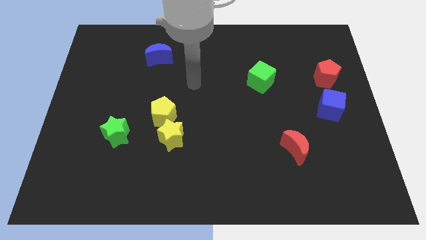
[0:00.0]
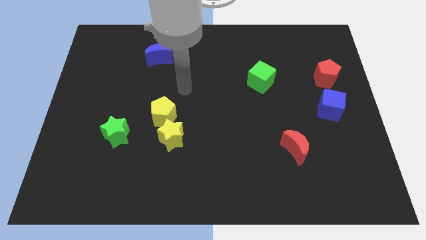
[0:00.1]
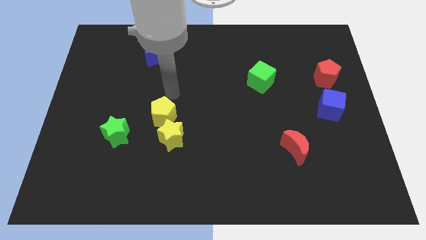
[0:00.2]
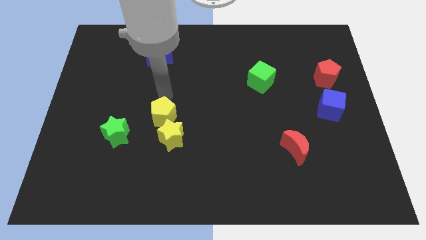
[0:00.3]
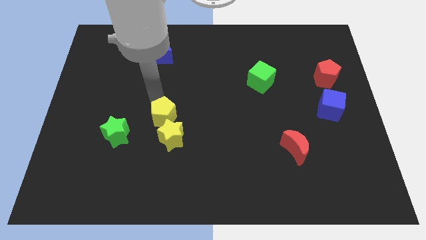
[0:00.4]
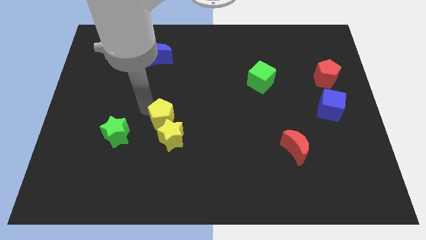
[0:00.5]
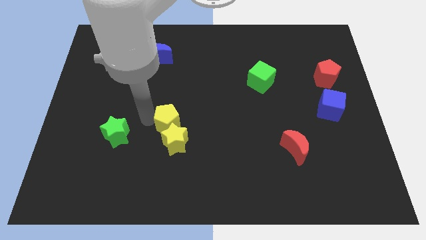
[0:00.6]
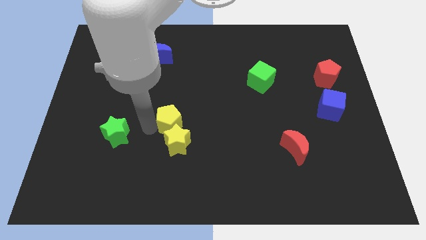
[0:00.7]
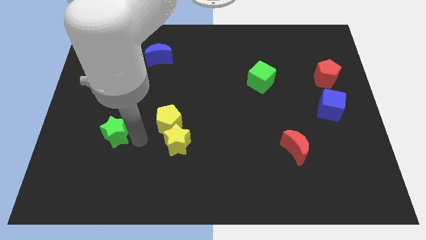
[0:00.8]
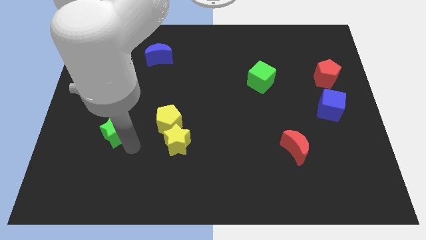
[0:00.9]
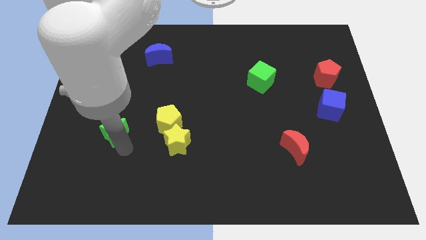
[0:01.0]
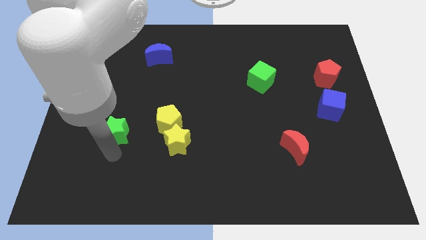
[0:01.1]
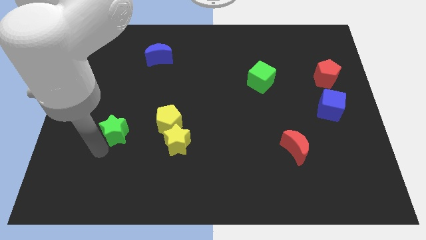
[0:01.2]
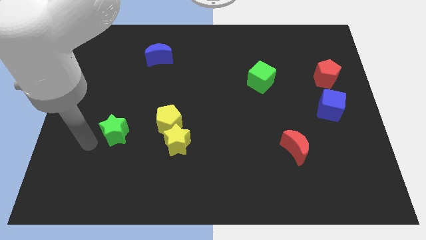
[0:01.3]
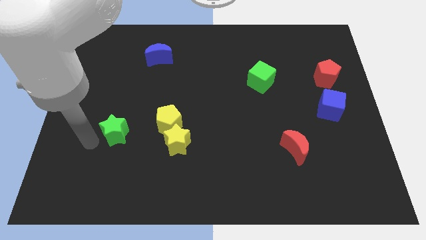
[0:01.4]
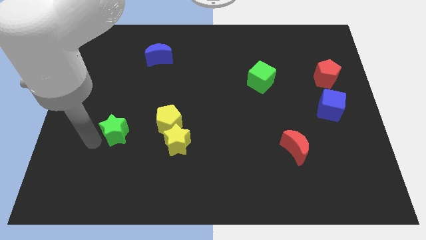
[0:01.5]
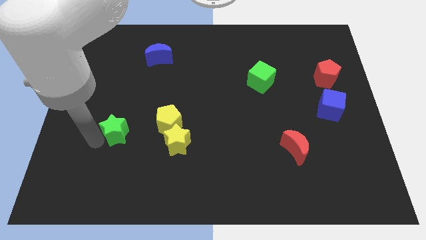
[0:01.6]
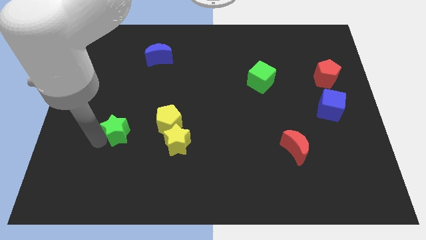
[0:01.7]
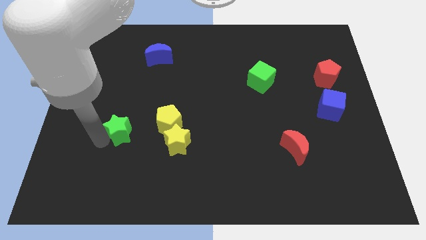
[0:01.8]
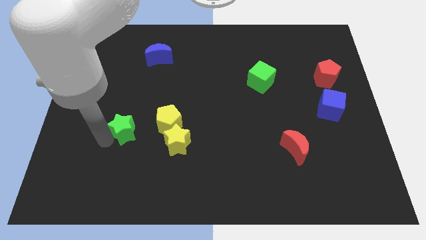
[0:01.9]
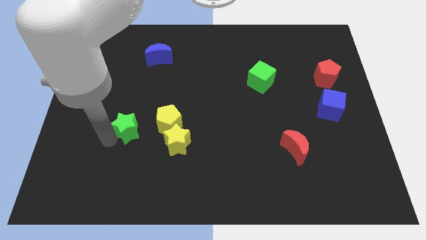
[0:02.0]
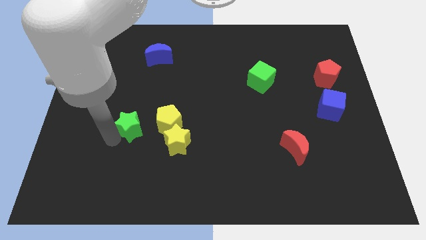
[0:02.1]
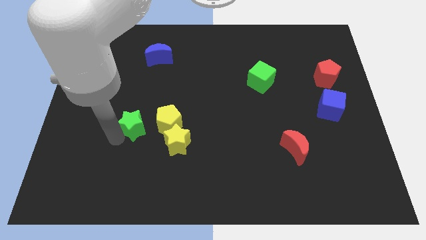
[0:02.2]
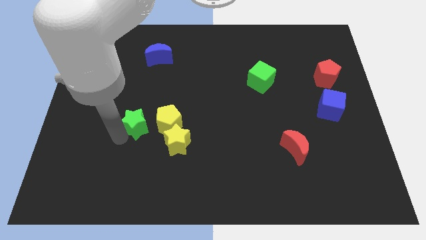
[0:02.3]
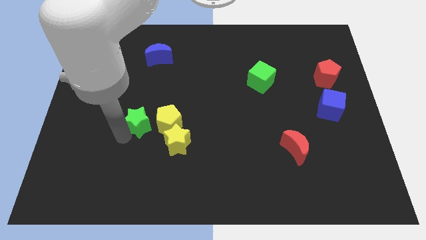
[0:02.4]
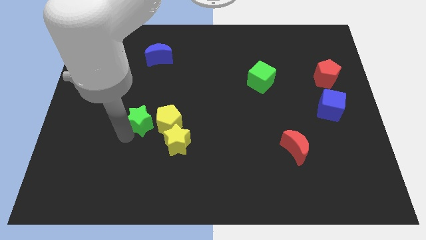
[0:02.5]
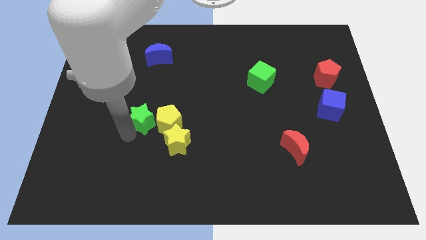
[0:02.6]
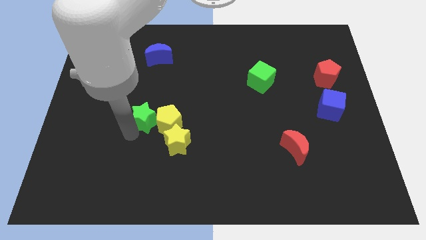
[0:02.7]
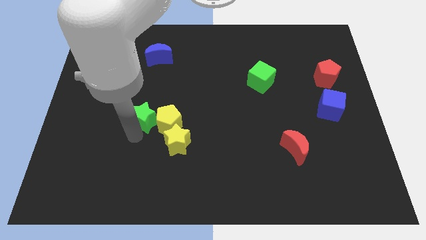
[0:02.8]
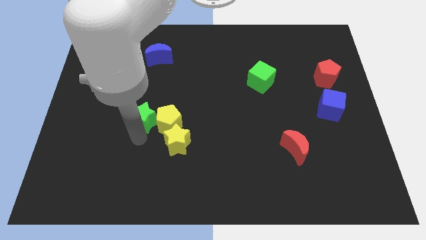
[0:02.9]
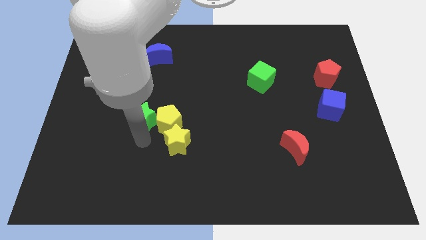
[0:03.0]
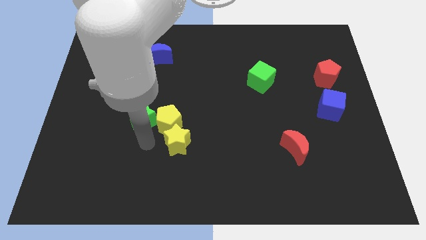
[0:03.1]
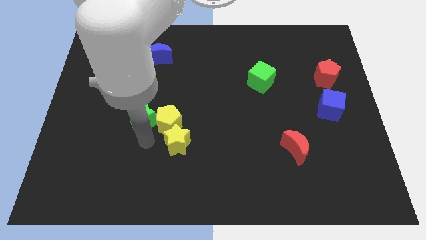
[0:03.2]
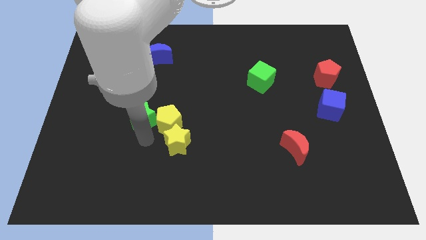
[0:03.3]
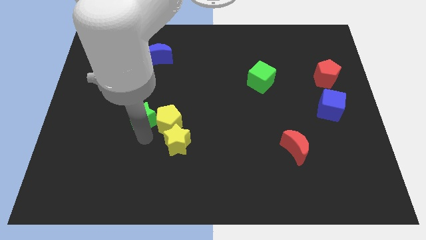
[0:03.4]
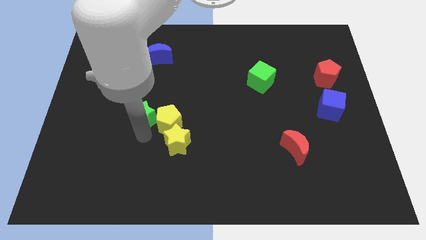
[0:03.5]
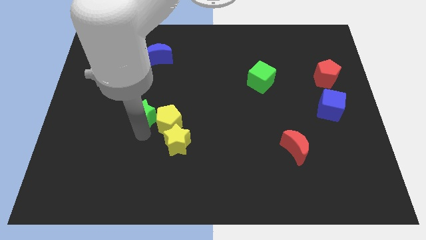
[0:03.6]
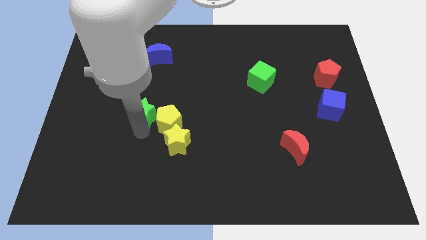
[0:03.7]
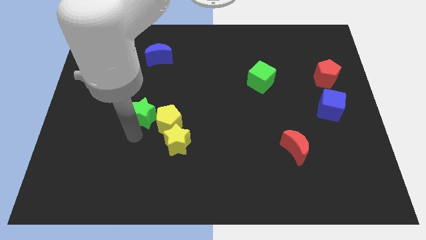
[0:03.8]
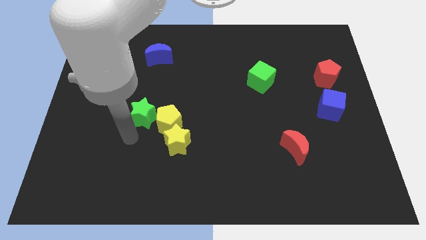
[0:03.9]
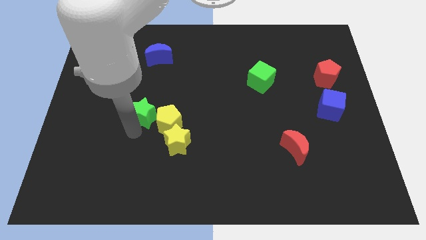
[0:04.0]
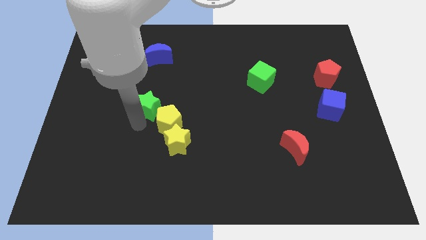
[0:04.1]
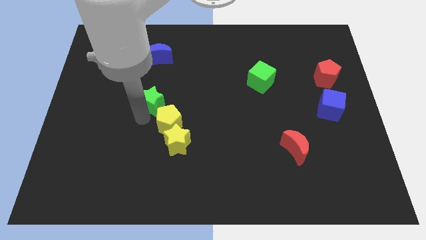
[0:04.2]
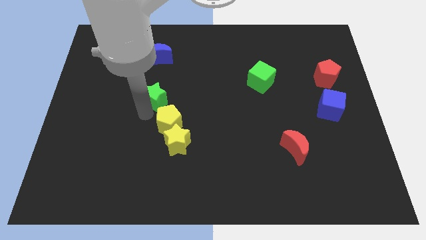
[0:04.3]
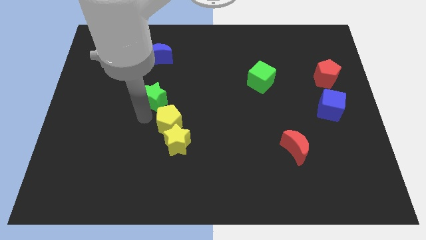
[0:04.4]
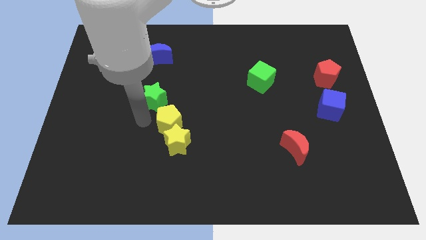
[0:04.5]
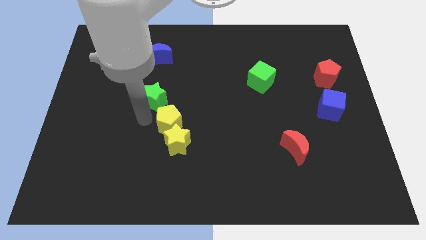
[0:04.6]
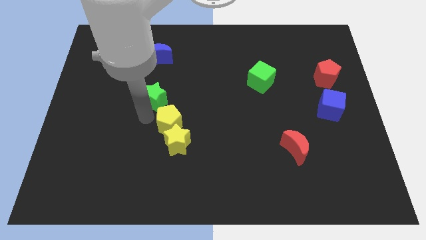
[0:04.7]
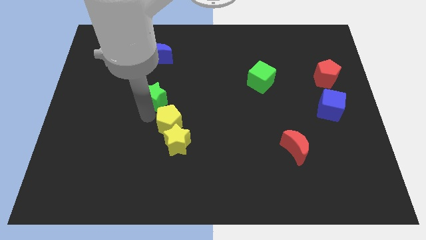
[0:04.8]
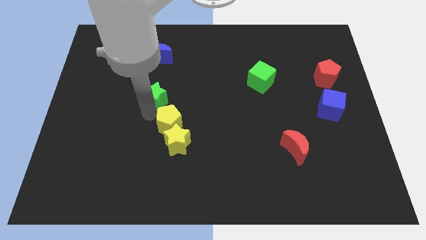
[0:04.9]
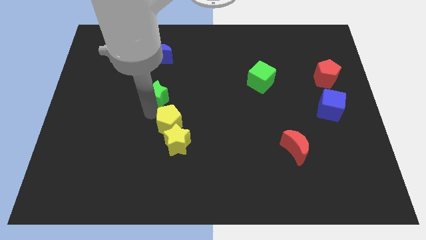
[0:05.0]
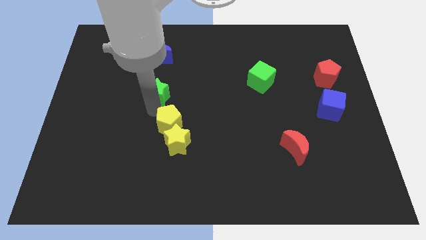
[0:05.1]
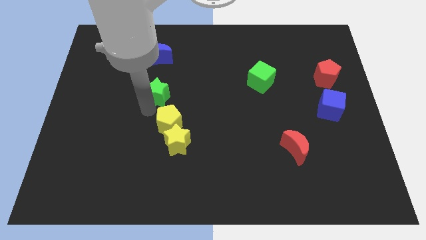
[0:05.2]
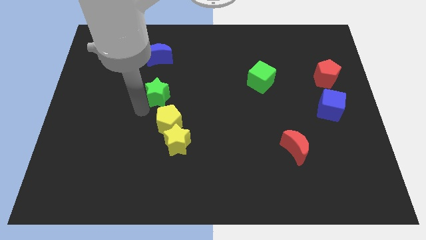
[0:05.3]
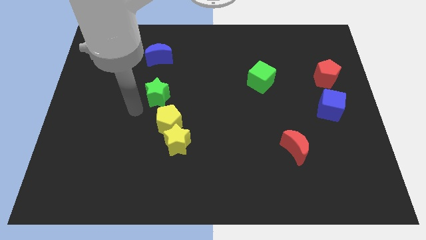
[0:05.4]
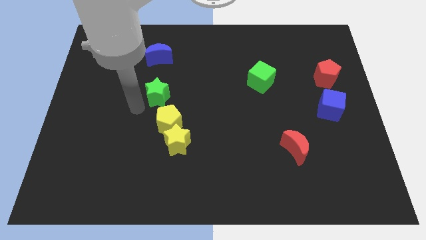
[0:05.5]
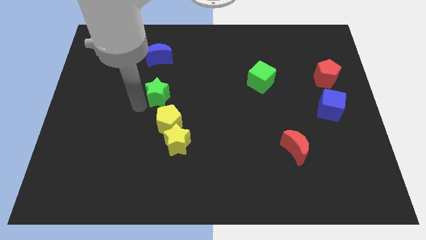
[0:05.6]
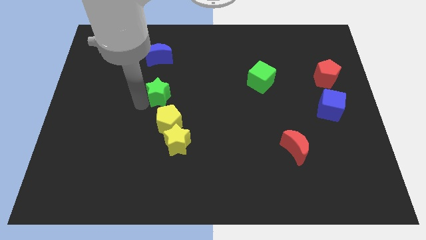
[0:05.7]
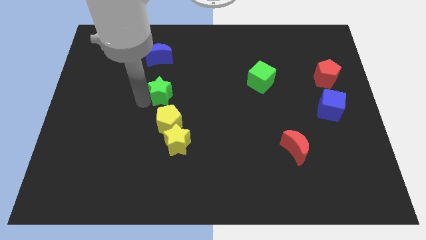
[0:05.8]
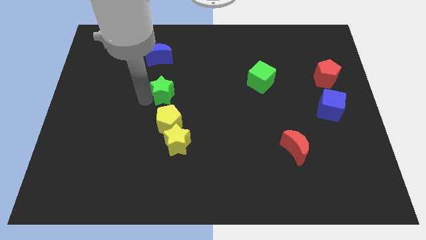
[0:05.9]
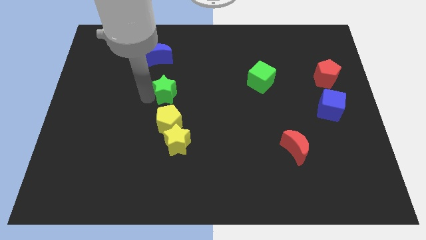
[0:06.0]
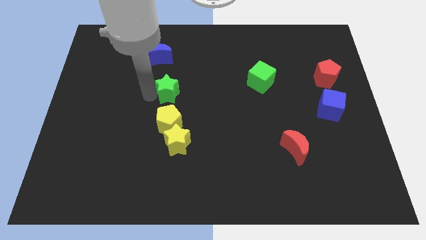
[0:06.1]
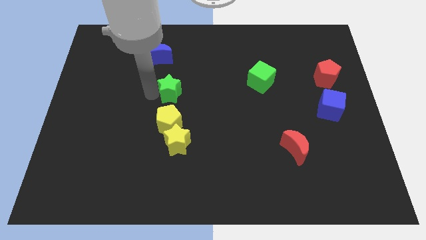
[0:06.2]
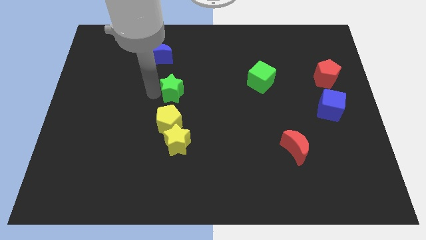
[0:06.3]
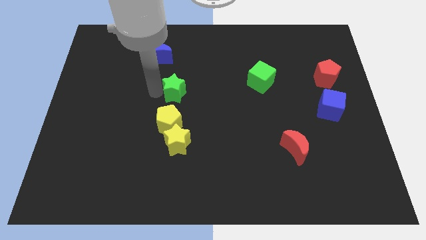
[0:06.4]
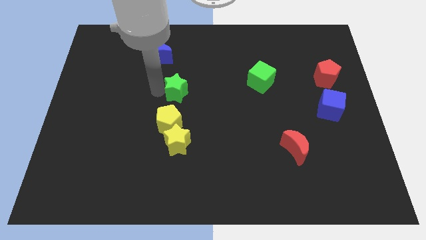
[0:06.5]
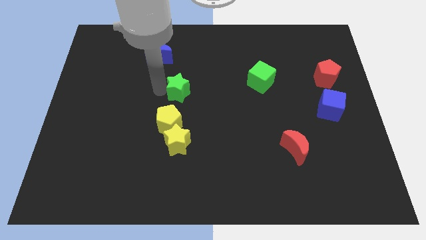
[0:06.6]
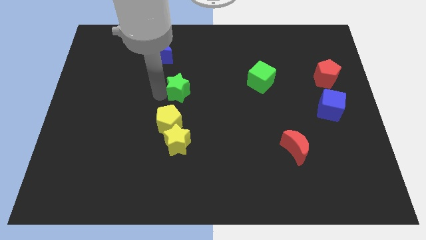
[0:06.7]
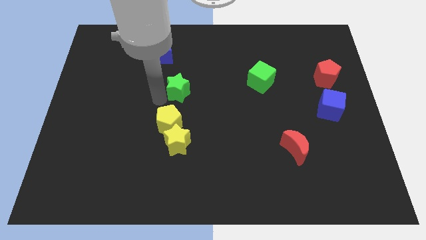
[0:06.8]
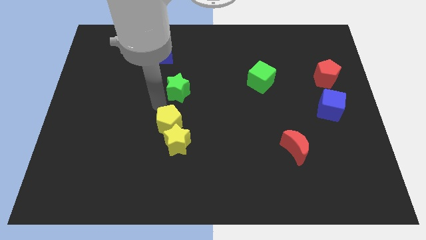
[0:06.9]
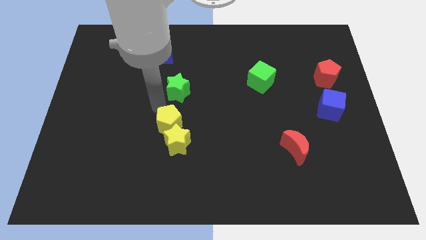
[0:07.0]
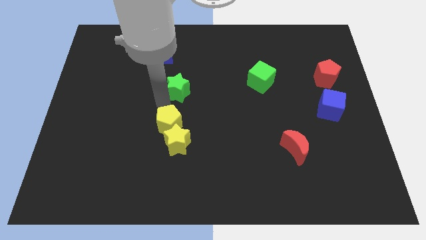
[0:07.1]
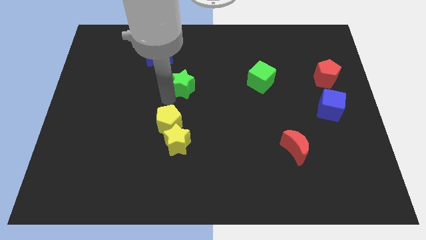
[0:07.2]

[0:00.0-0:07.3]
push the green star upwards and then right

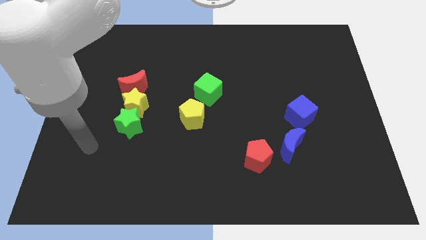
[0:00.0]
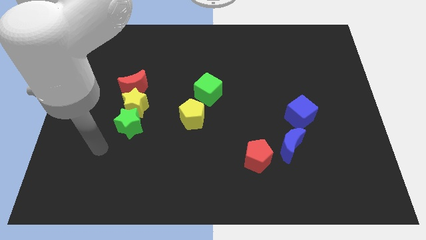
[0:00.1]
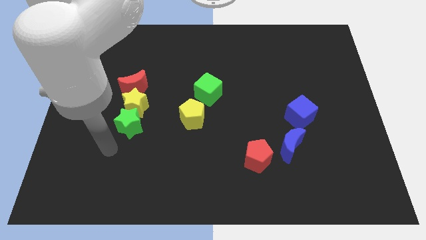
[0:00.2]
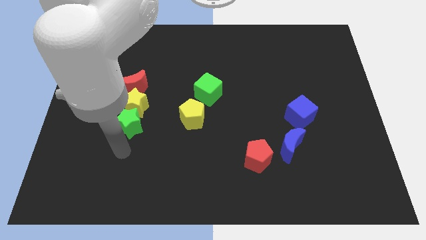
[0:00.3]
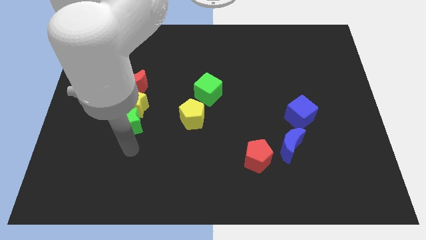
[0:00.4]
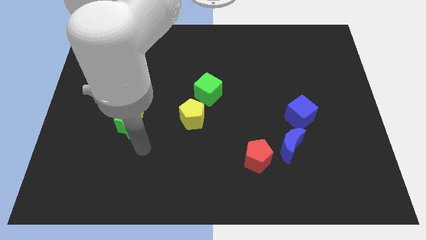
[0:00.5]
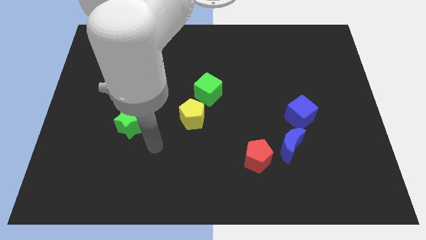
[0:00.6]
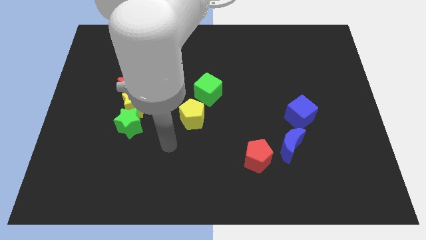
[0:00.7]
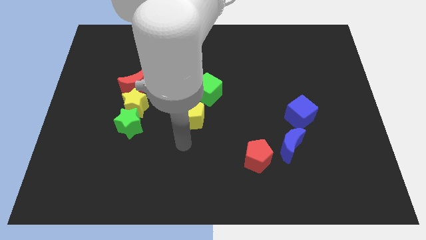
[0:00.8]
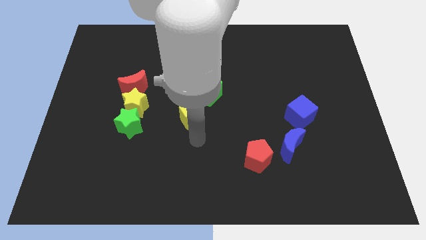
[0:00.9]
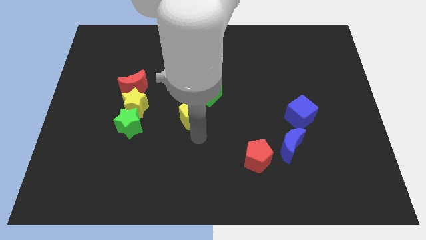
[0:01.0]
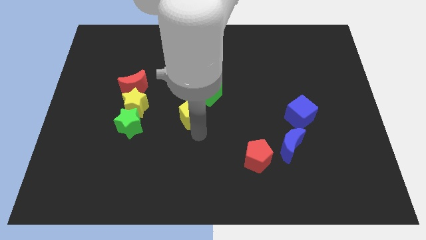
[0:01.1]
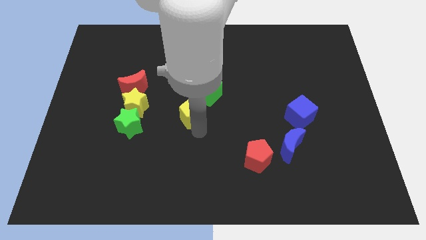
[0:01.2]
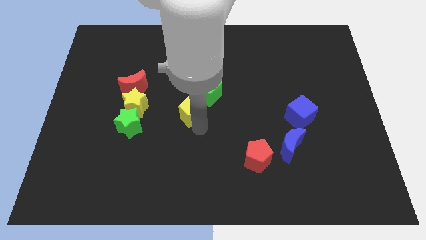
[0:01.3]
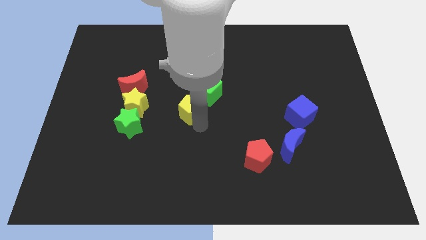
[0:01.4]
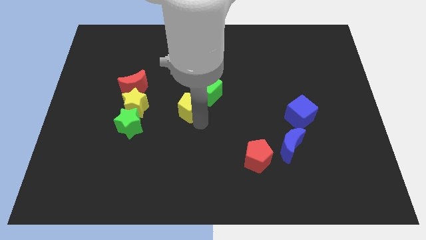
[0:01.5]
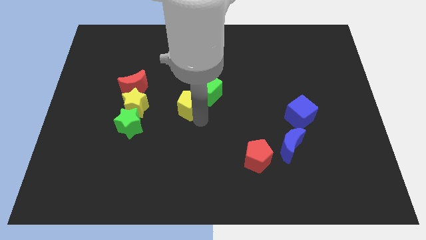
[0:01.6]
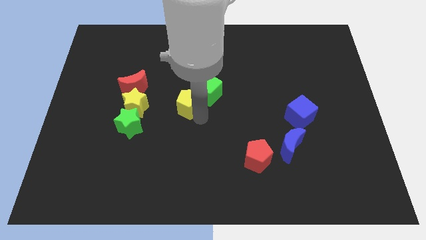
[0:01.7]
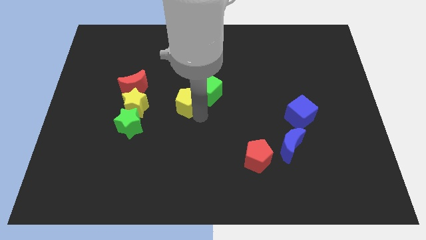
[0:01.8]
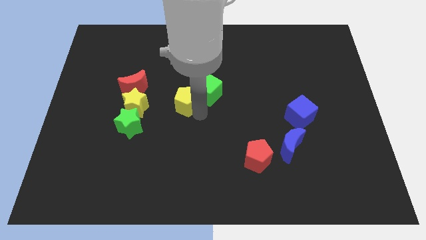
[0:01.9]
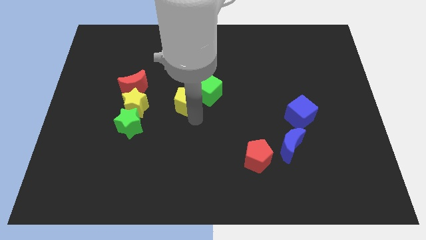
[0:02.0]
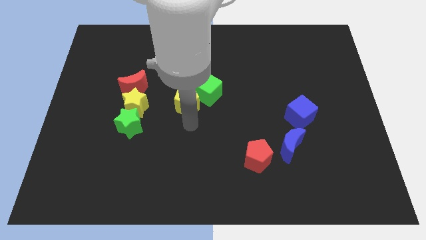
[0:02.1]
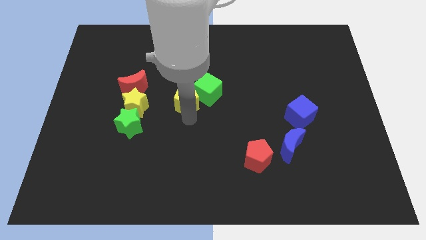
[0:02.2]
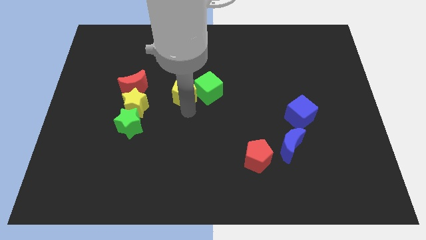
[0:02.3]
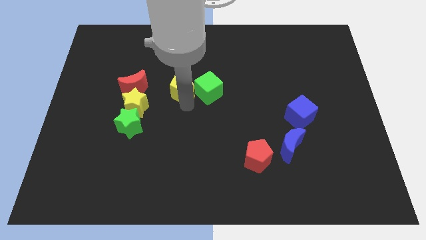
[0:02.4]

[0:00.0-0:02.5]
move the yellow pentagon slightly upwards
